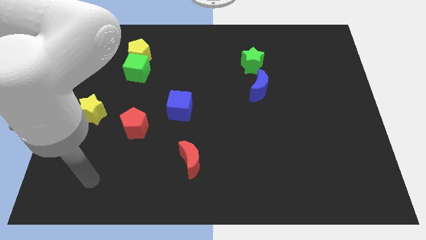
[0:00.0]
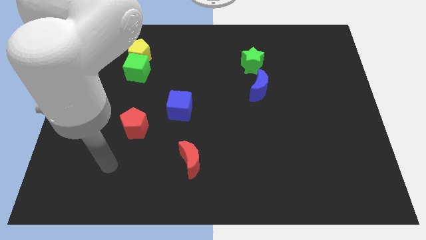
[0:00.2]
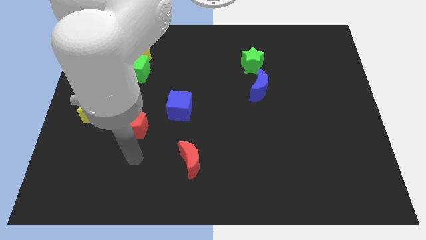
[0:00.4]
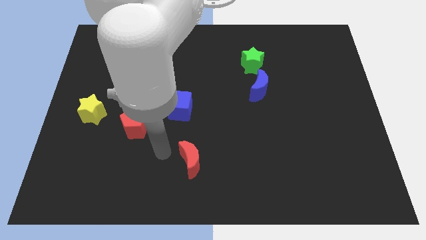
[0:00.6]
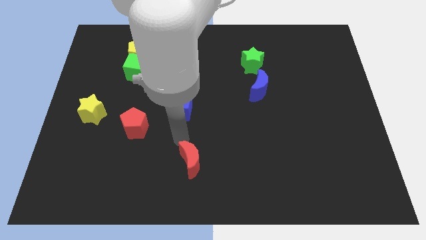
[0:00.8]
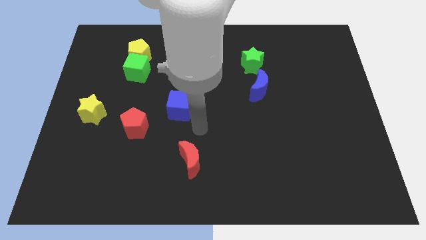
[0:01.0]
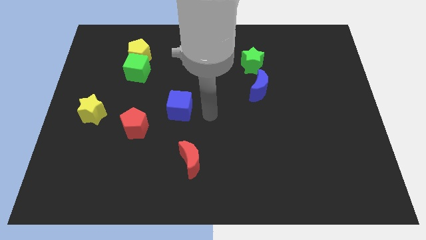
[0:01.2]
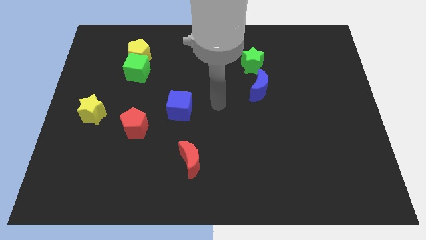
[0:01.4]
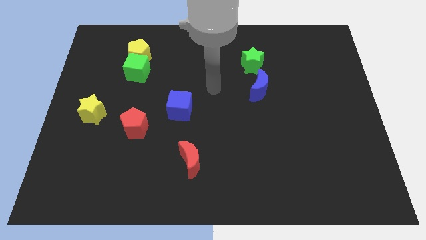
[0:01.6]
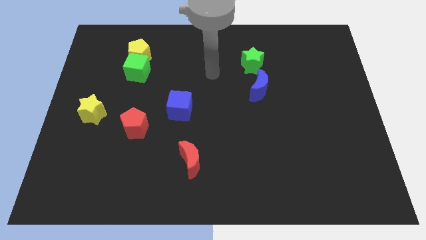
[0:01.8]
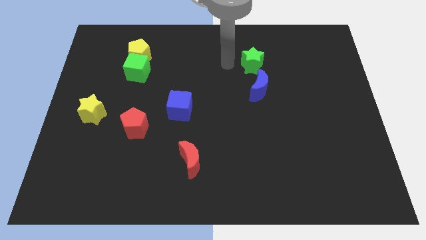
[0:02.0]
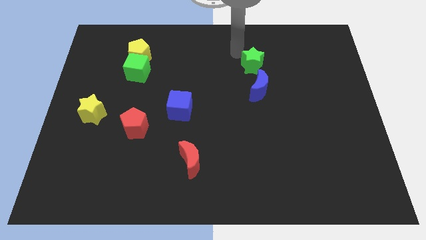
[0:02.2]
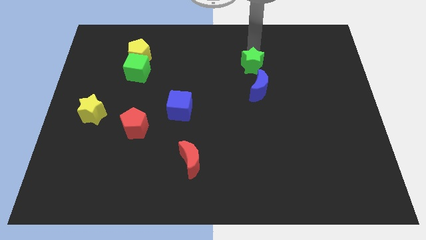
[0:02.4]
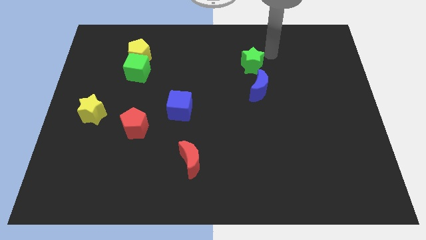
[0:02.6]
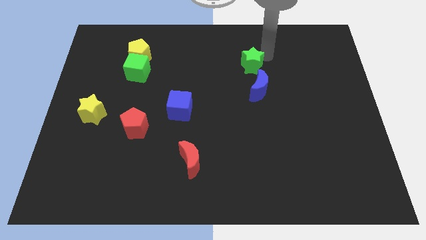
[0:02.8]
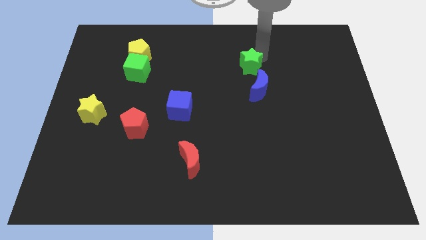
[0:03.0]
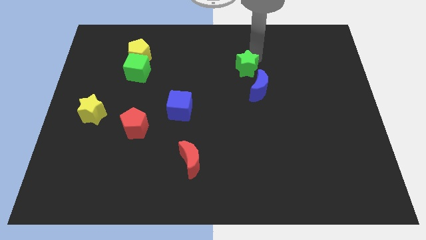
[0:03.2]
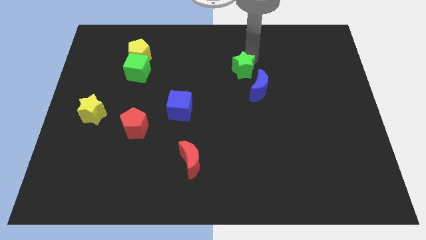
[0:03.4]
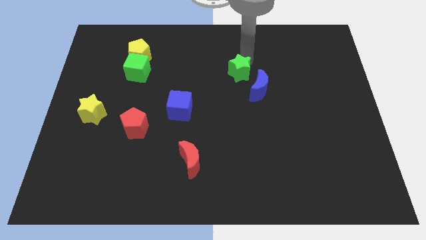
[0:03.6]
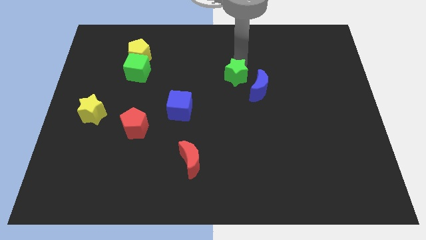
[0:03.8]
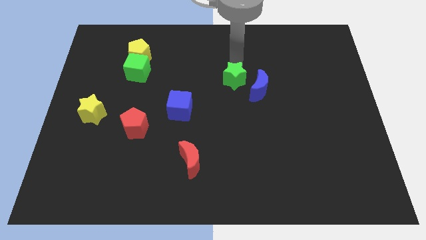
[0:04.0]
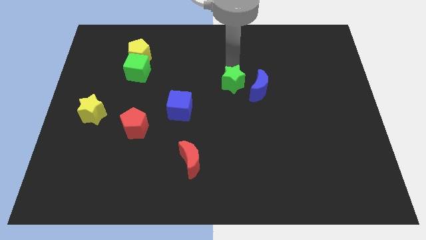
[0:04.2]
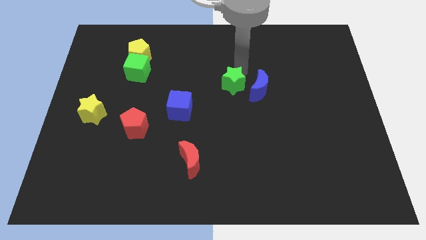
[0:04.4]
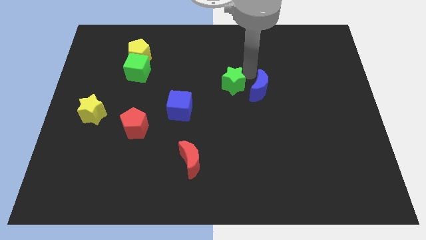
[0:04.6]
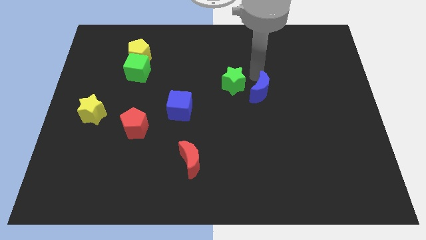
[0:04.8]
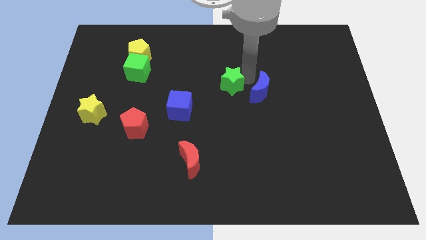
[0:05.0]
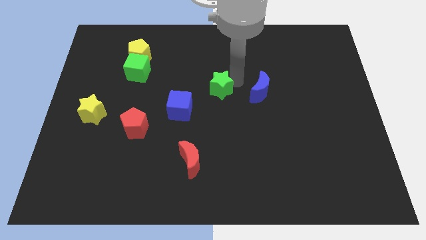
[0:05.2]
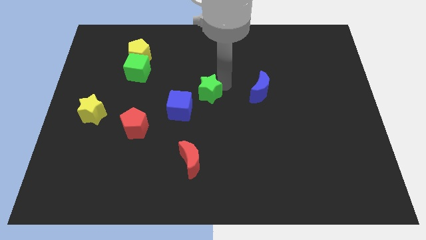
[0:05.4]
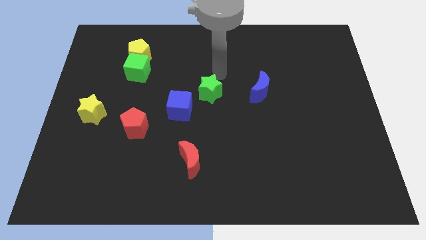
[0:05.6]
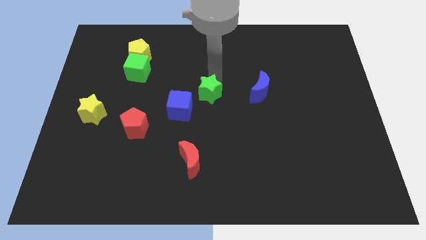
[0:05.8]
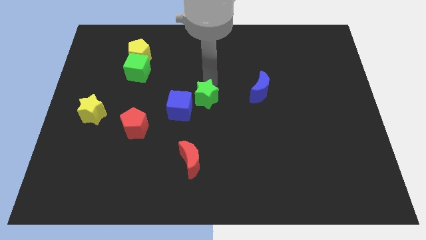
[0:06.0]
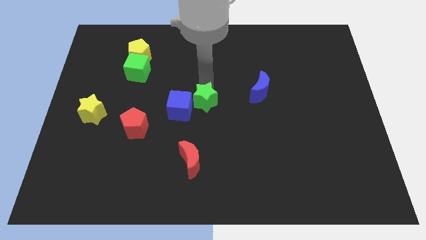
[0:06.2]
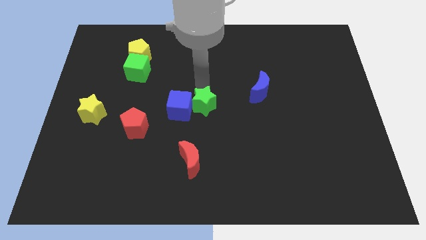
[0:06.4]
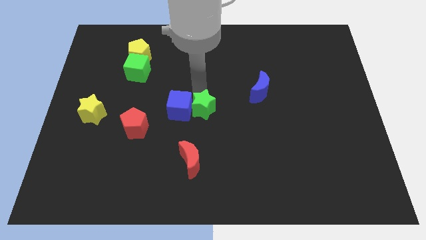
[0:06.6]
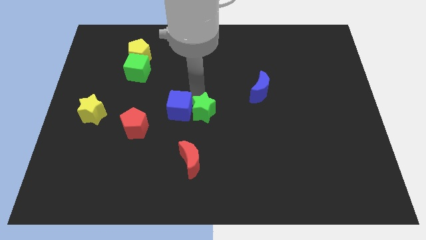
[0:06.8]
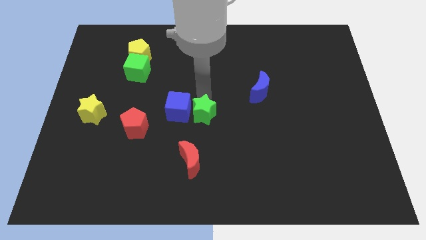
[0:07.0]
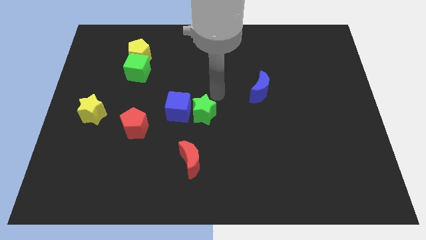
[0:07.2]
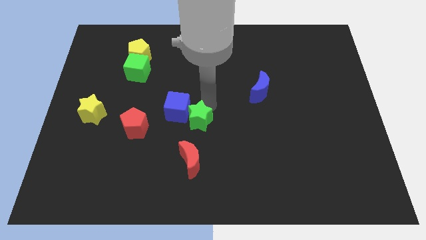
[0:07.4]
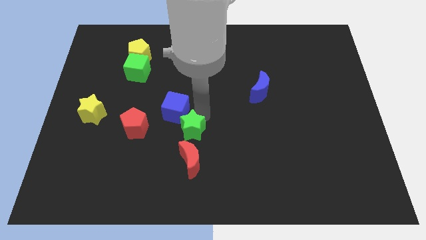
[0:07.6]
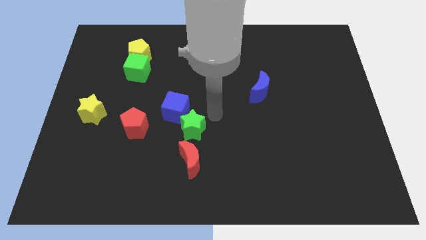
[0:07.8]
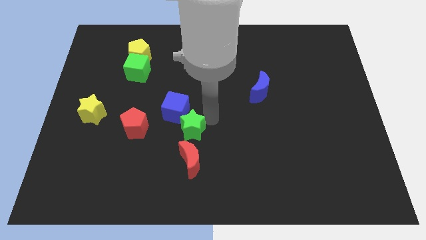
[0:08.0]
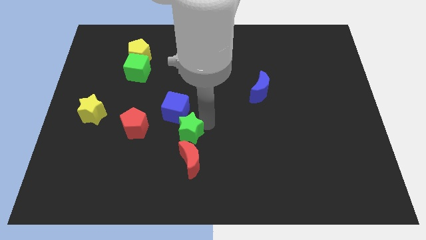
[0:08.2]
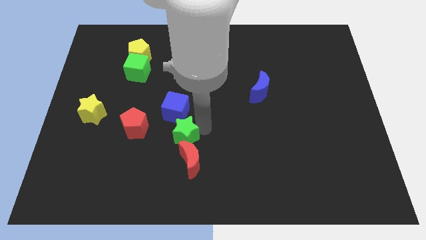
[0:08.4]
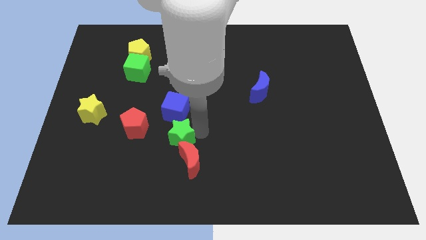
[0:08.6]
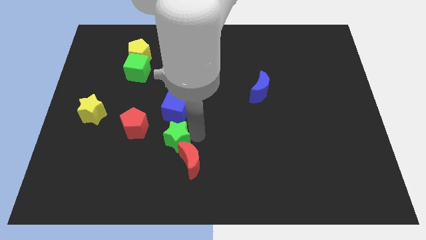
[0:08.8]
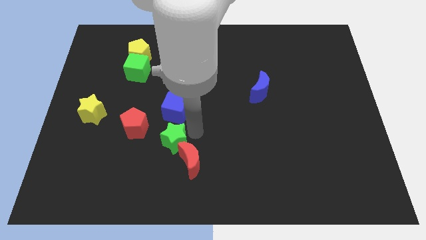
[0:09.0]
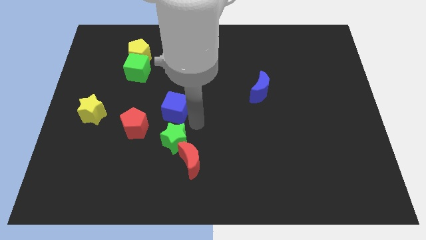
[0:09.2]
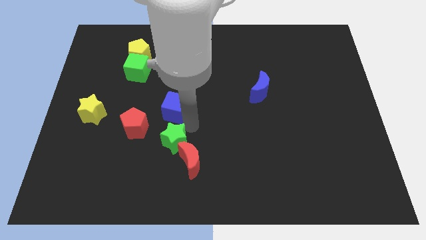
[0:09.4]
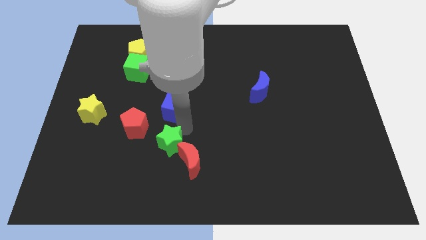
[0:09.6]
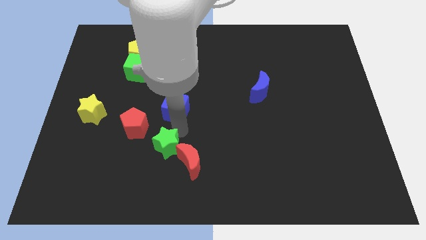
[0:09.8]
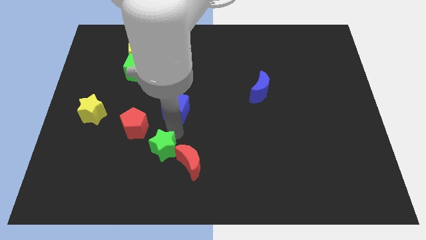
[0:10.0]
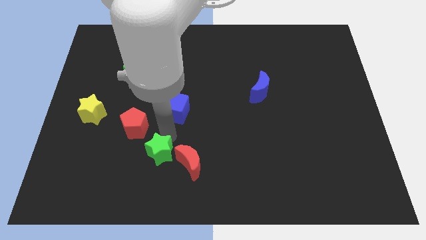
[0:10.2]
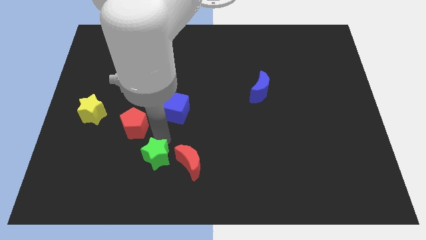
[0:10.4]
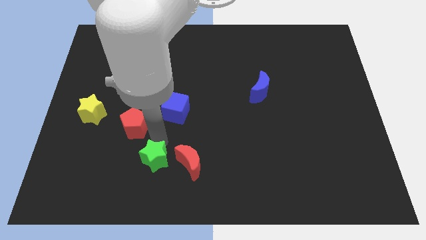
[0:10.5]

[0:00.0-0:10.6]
put the green star to the bottom side of the red pentagon

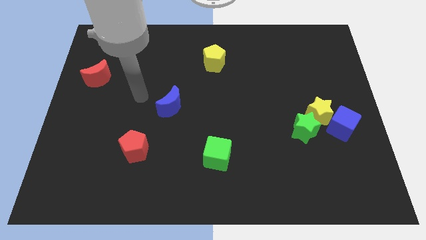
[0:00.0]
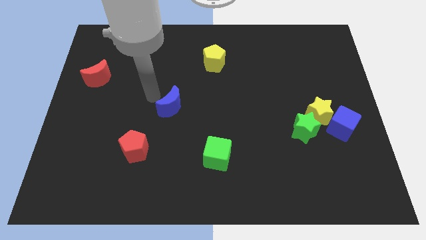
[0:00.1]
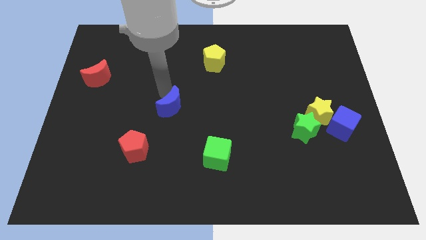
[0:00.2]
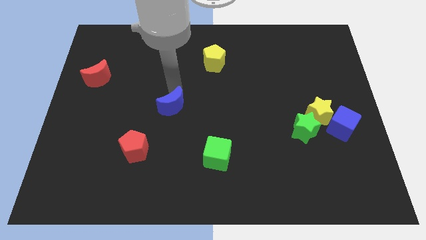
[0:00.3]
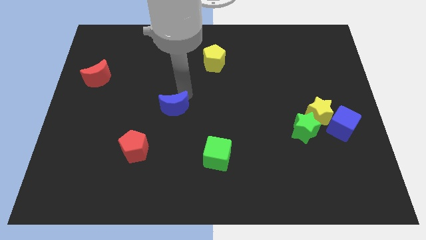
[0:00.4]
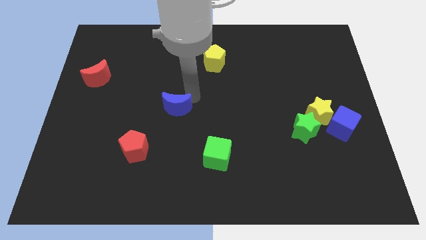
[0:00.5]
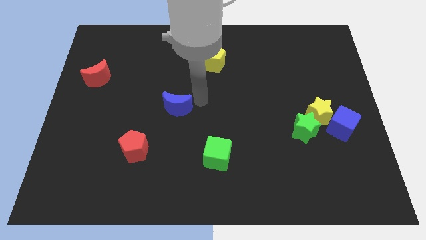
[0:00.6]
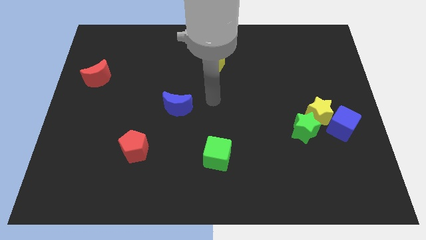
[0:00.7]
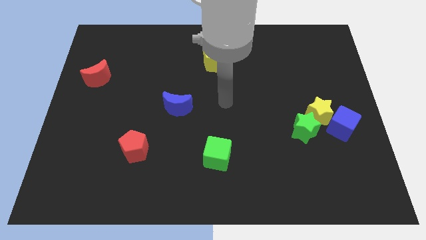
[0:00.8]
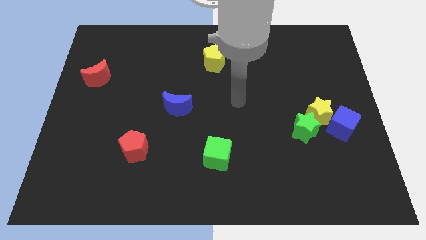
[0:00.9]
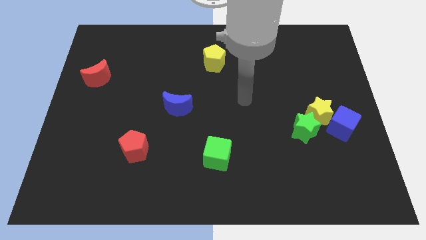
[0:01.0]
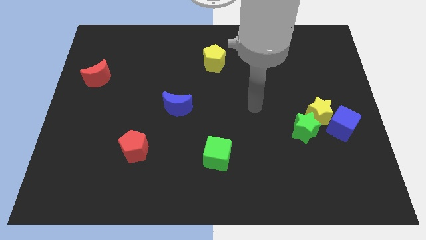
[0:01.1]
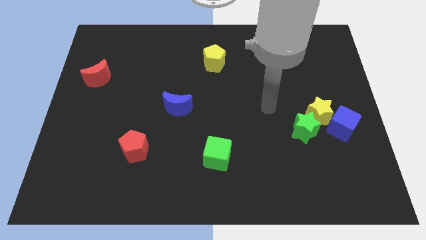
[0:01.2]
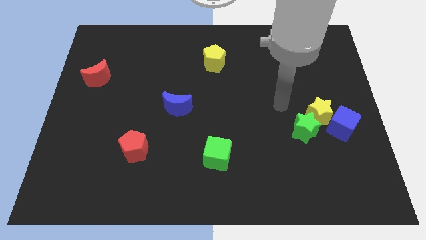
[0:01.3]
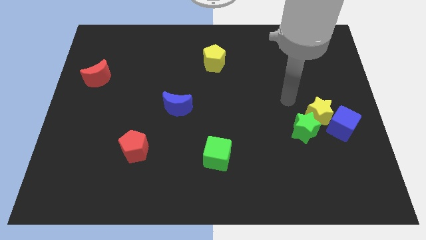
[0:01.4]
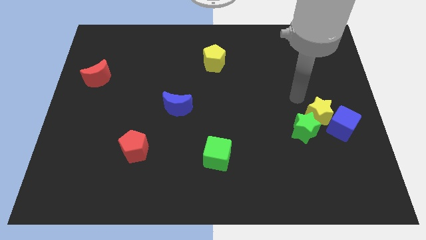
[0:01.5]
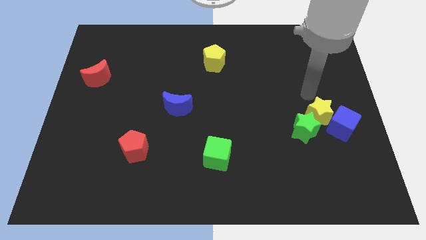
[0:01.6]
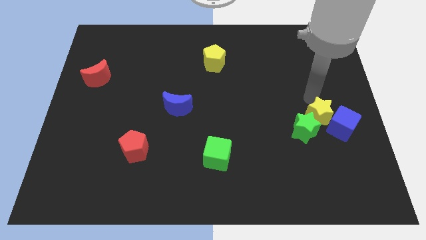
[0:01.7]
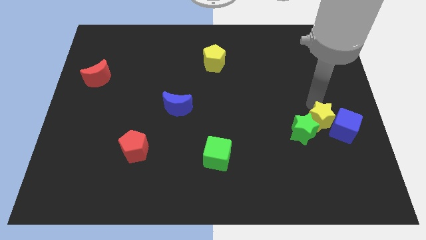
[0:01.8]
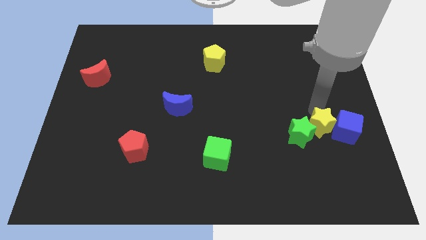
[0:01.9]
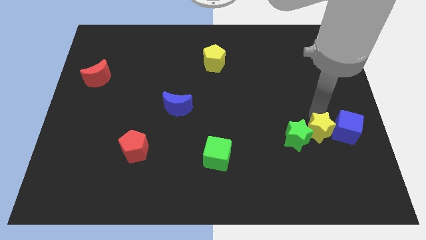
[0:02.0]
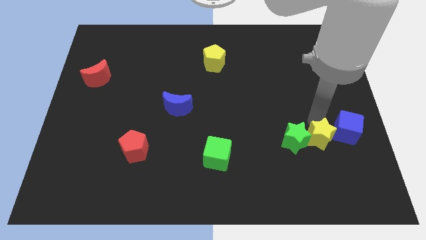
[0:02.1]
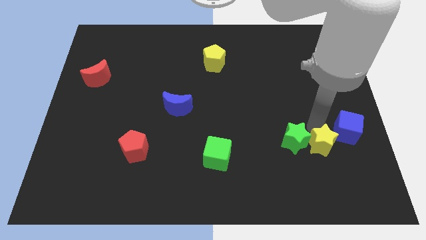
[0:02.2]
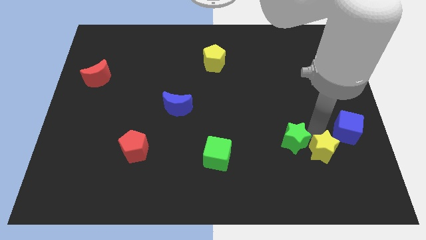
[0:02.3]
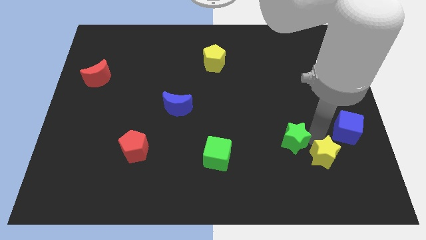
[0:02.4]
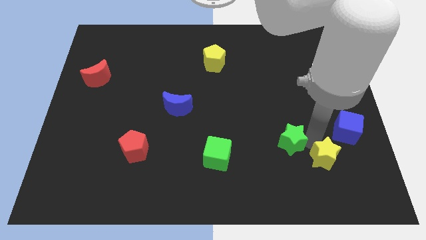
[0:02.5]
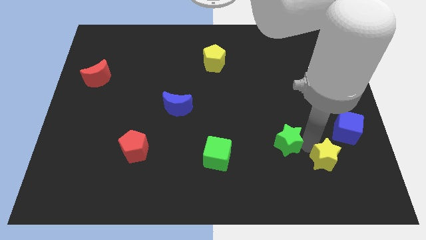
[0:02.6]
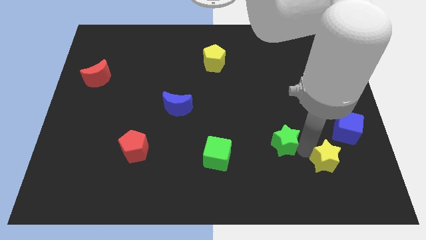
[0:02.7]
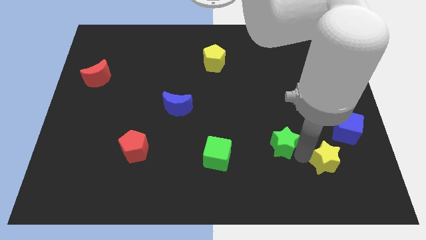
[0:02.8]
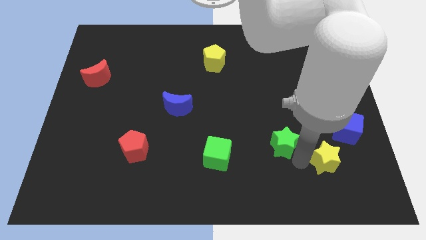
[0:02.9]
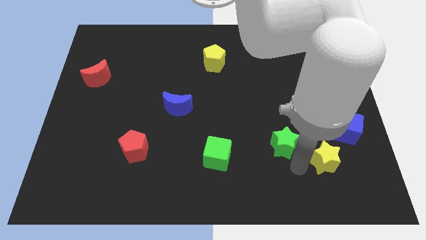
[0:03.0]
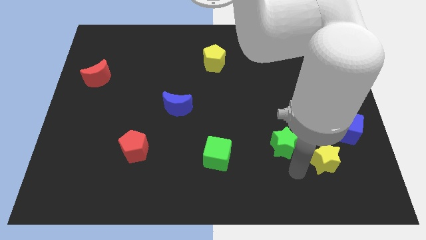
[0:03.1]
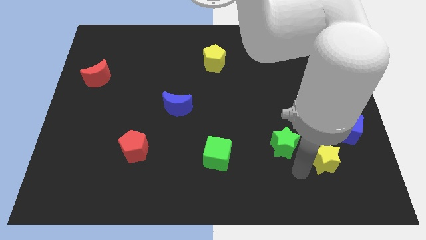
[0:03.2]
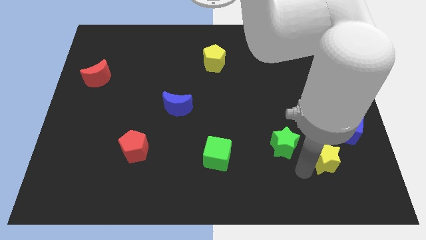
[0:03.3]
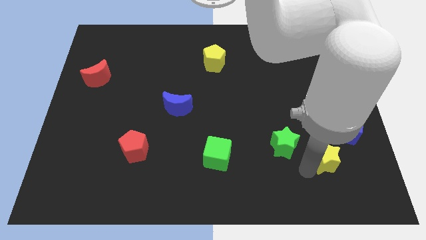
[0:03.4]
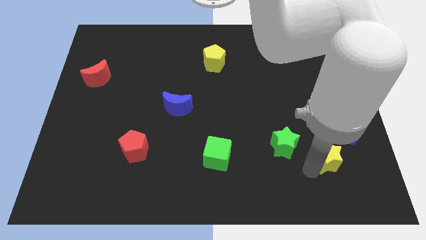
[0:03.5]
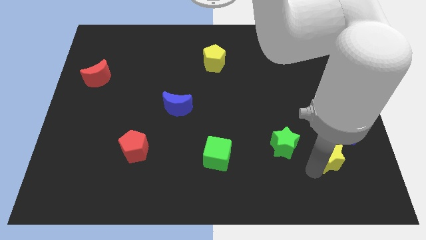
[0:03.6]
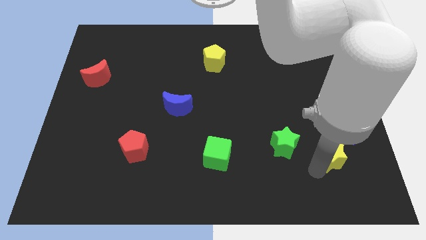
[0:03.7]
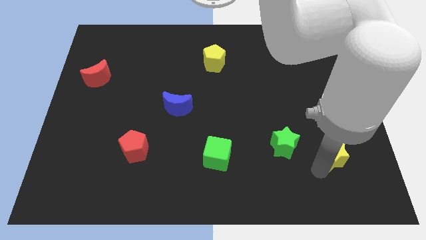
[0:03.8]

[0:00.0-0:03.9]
move the yellow star to the bottom of the blue cube
